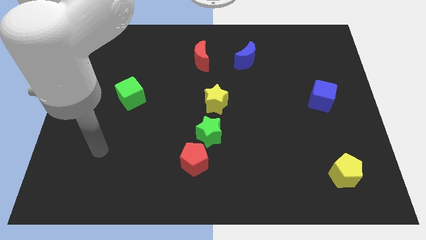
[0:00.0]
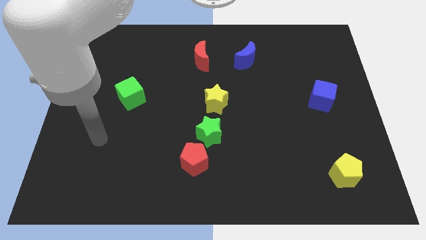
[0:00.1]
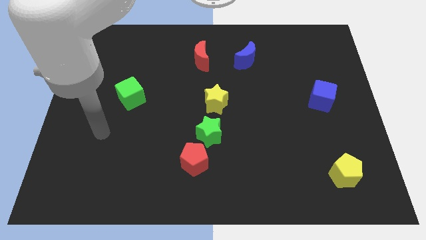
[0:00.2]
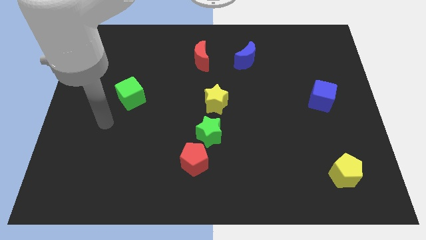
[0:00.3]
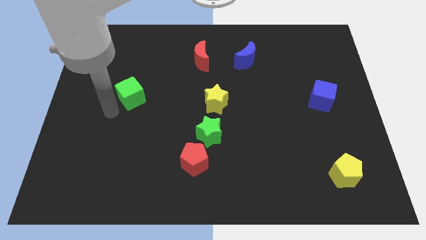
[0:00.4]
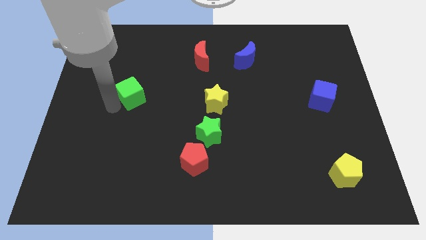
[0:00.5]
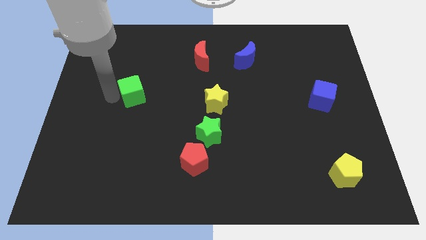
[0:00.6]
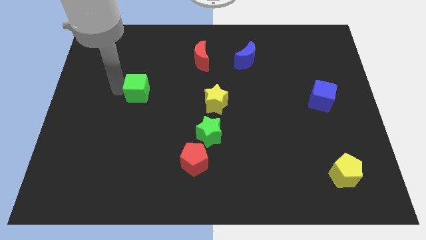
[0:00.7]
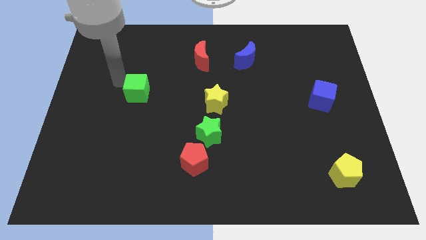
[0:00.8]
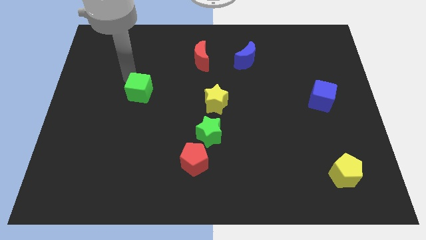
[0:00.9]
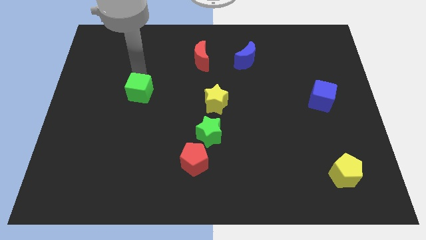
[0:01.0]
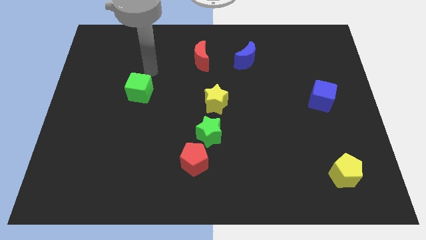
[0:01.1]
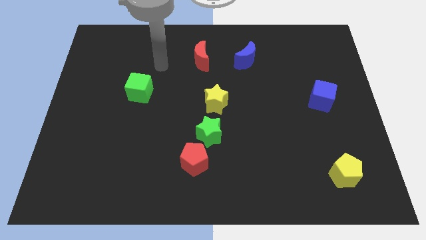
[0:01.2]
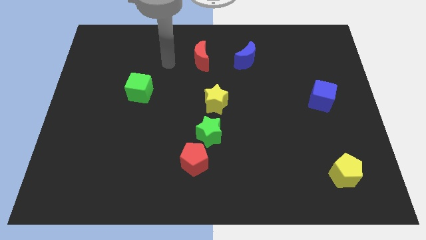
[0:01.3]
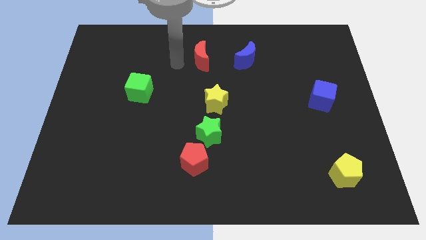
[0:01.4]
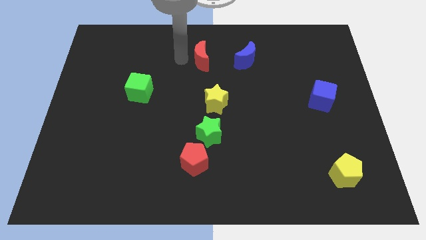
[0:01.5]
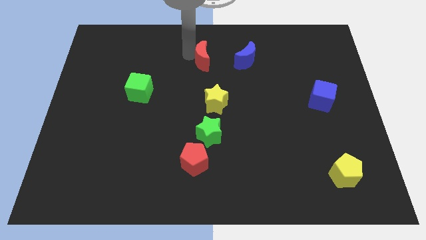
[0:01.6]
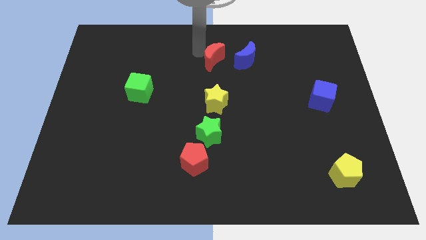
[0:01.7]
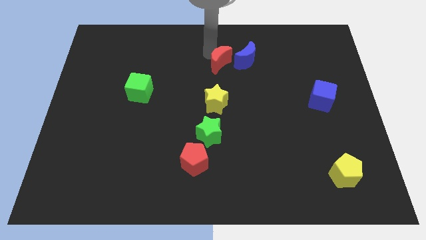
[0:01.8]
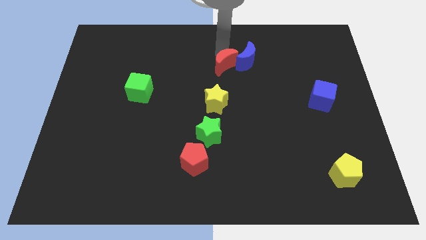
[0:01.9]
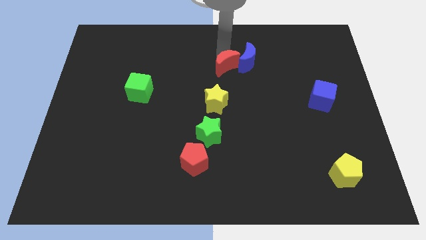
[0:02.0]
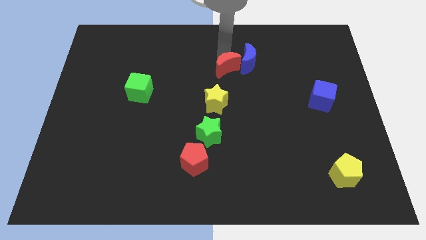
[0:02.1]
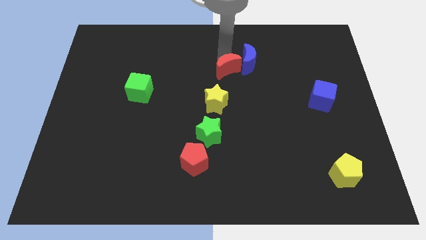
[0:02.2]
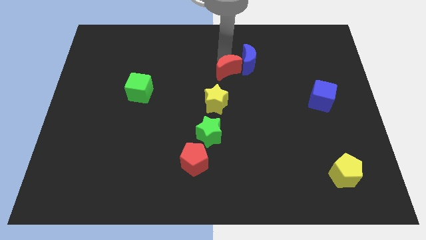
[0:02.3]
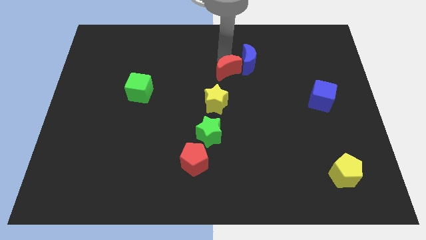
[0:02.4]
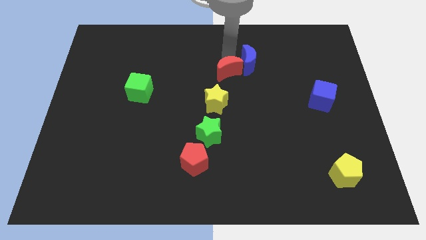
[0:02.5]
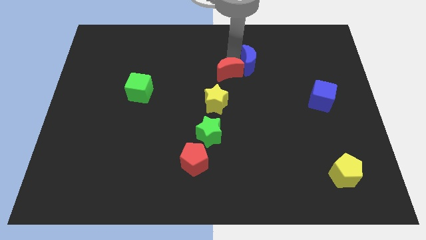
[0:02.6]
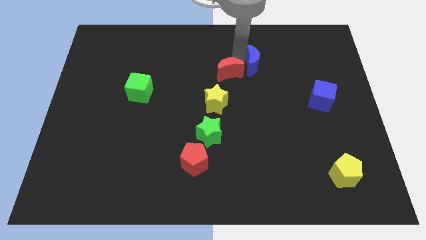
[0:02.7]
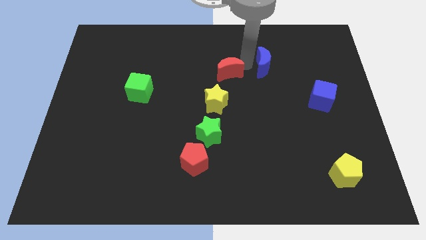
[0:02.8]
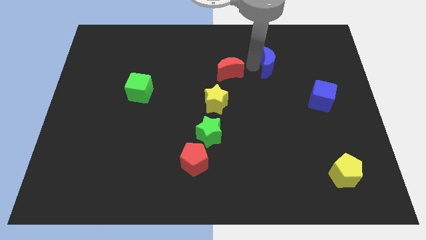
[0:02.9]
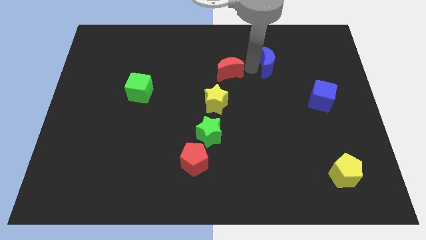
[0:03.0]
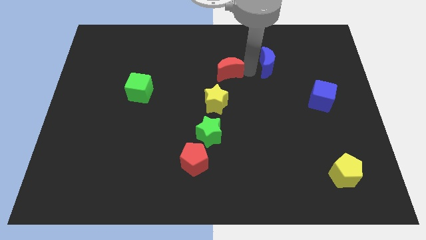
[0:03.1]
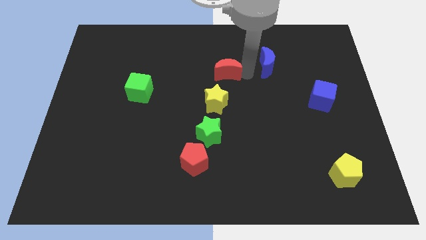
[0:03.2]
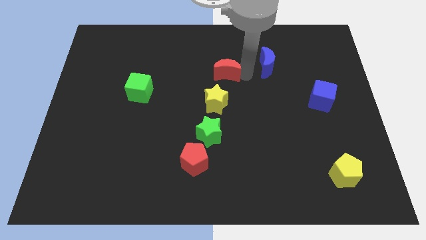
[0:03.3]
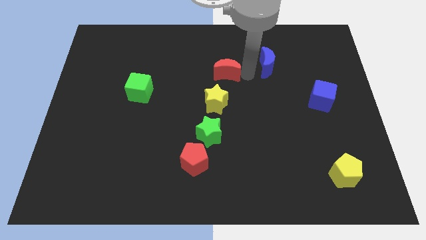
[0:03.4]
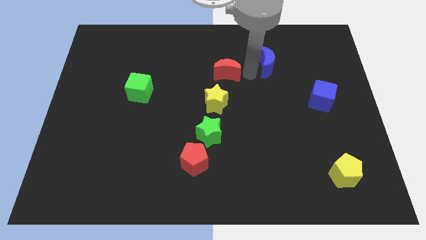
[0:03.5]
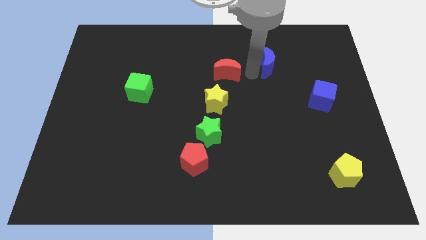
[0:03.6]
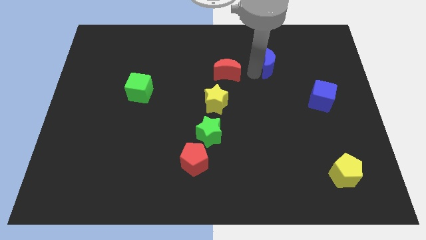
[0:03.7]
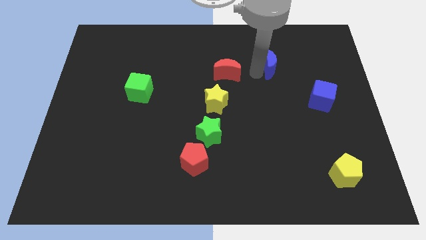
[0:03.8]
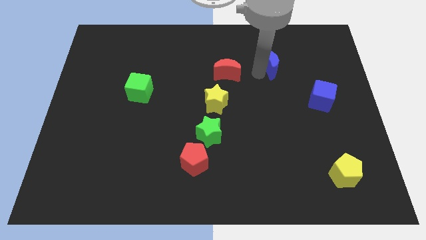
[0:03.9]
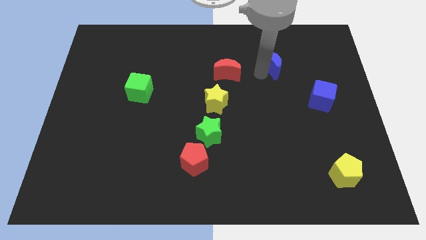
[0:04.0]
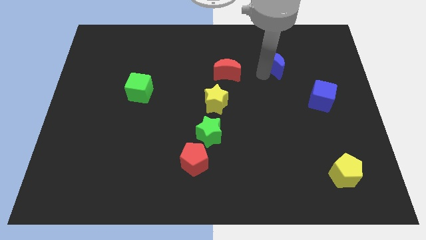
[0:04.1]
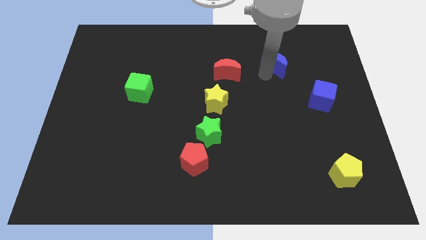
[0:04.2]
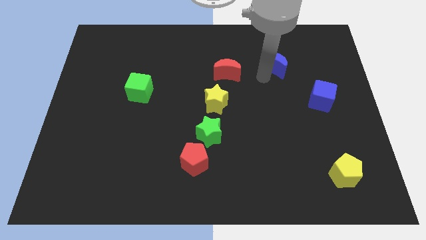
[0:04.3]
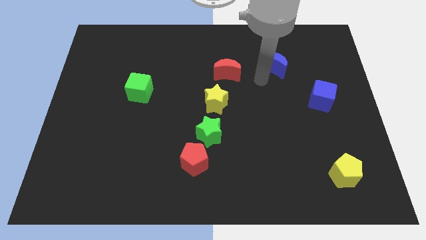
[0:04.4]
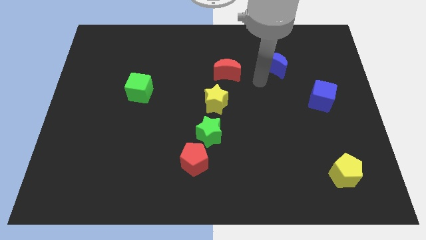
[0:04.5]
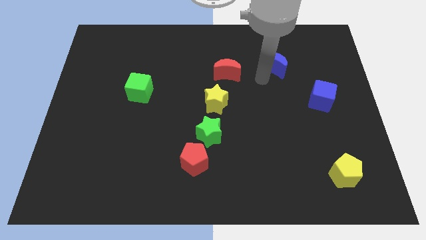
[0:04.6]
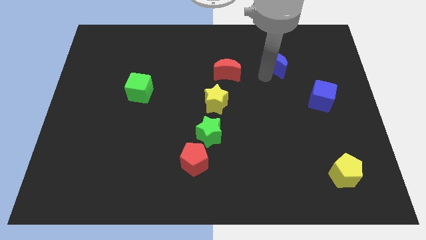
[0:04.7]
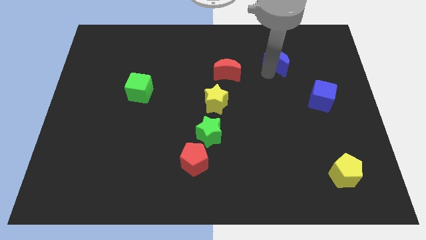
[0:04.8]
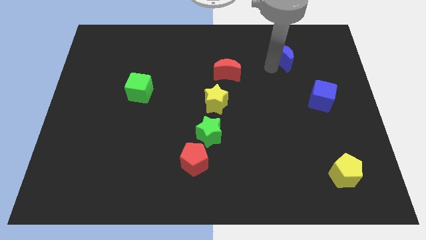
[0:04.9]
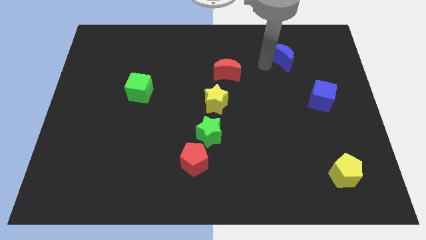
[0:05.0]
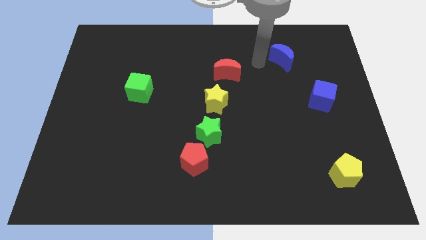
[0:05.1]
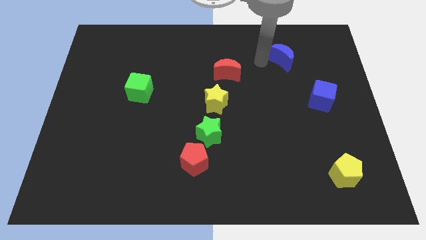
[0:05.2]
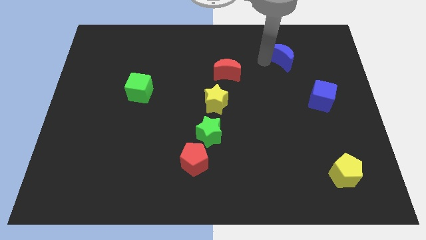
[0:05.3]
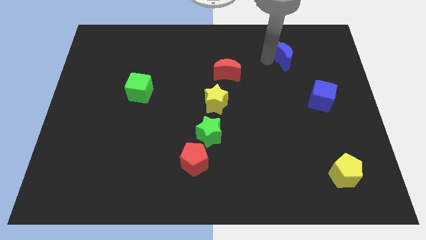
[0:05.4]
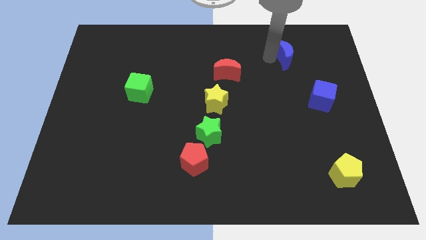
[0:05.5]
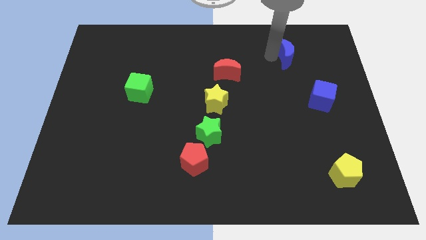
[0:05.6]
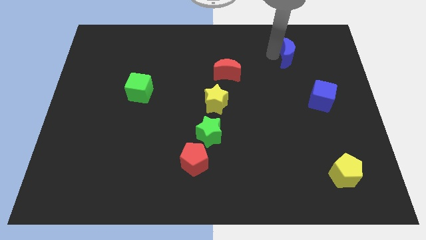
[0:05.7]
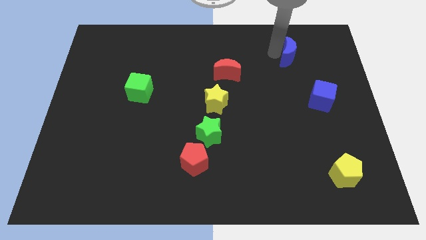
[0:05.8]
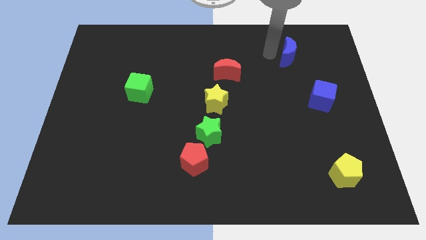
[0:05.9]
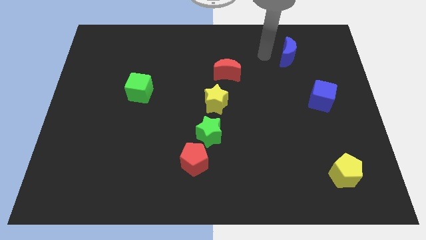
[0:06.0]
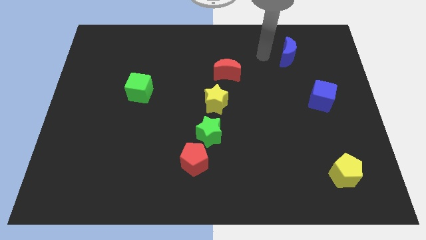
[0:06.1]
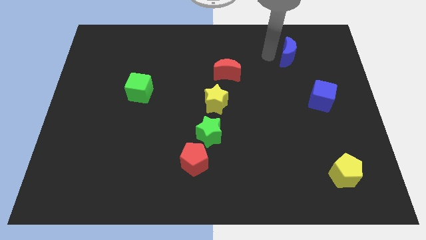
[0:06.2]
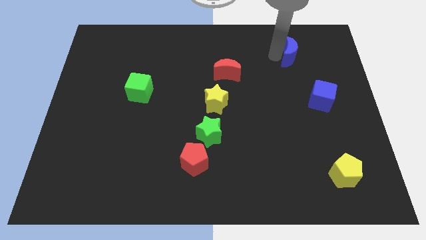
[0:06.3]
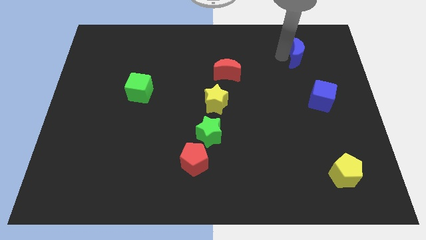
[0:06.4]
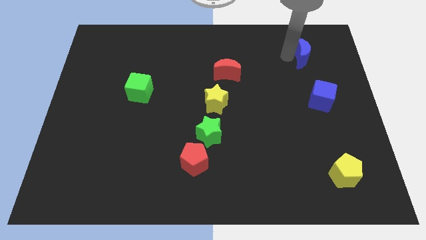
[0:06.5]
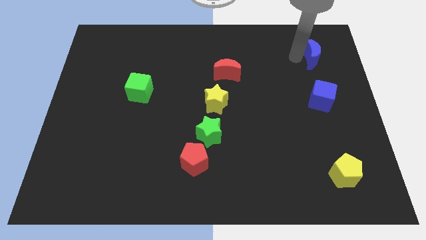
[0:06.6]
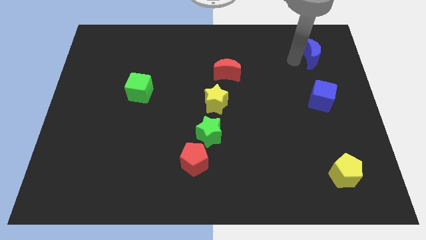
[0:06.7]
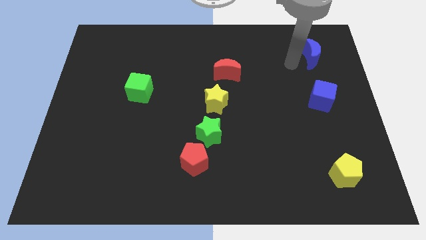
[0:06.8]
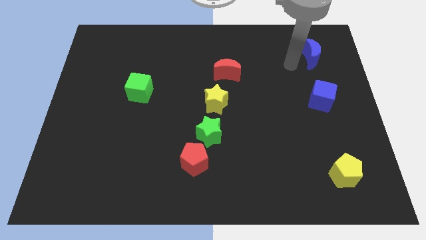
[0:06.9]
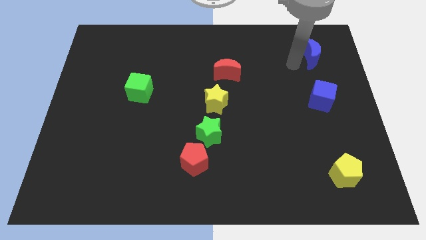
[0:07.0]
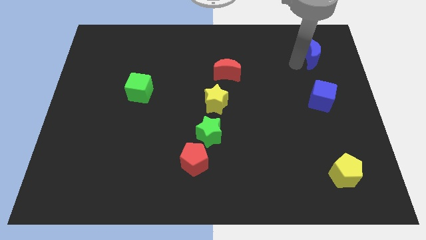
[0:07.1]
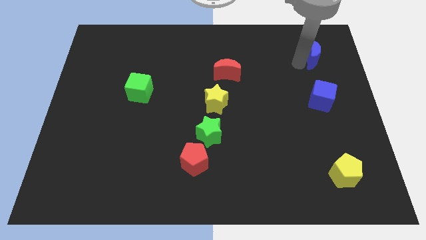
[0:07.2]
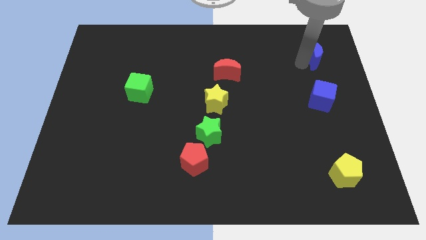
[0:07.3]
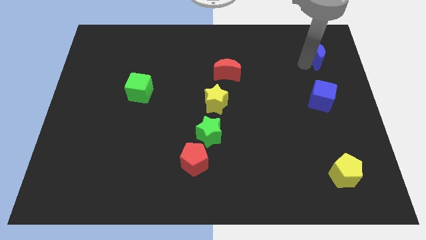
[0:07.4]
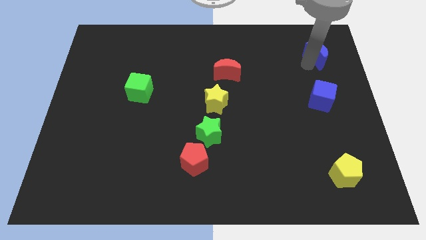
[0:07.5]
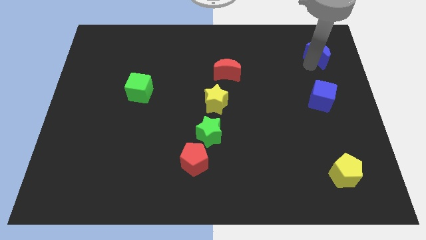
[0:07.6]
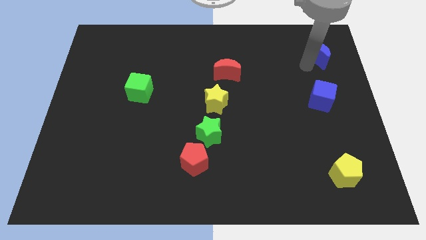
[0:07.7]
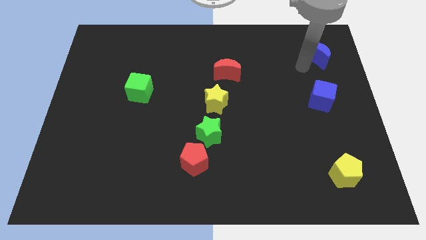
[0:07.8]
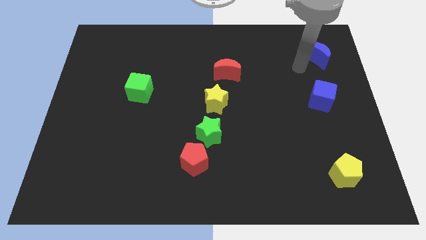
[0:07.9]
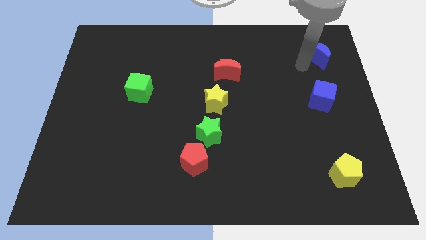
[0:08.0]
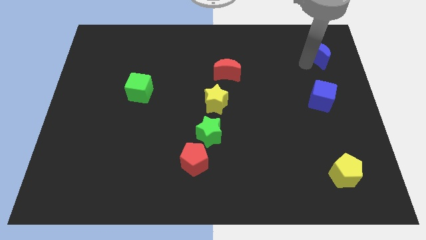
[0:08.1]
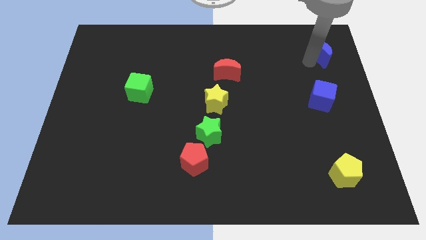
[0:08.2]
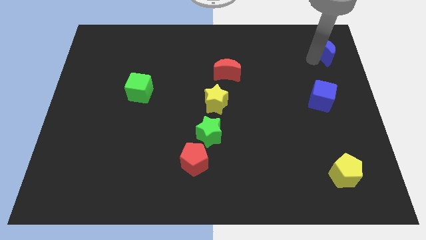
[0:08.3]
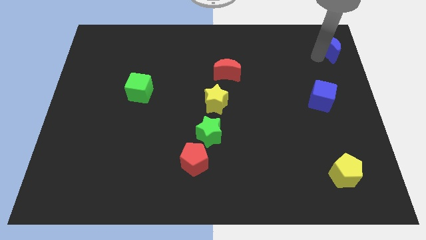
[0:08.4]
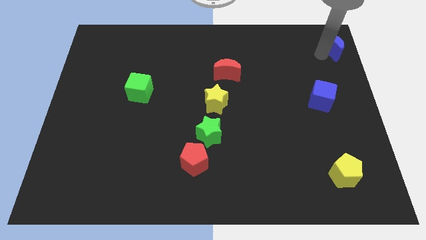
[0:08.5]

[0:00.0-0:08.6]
move the blue moon to the top right corner
